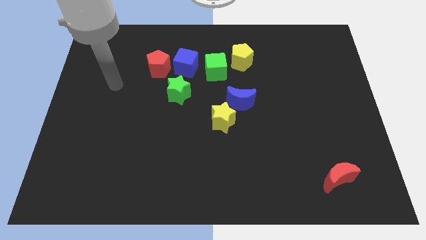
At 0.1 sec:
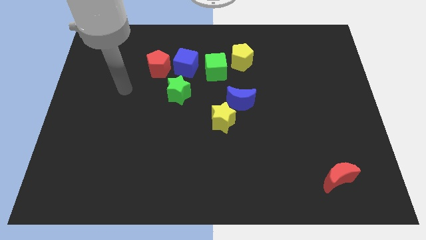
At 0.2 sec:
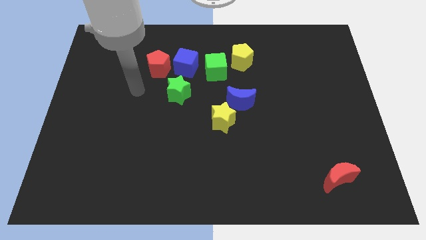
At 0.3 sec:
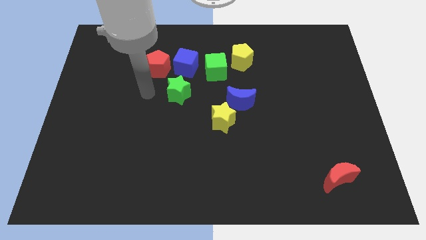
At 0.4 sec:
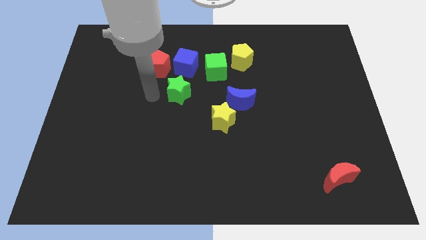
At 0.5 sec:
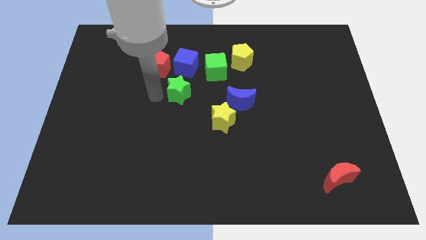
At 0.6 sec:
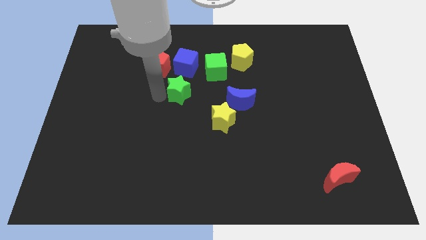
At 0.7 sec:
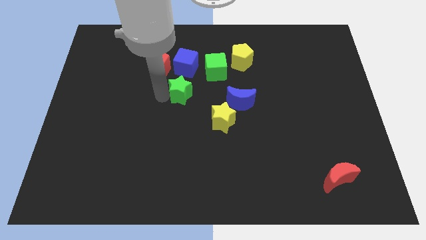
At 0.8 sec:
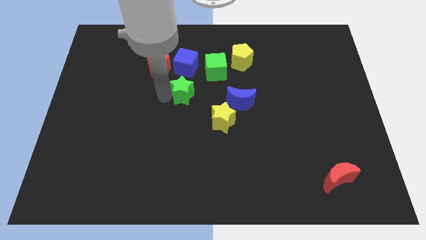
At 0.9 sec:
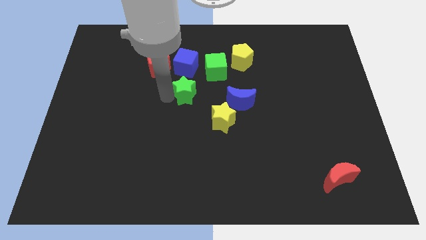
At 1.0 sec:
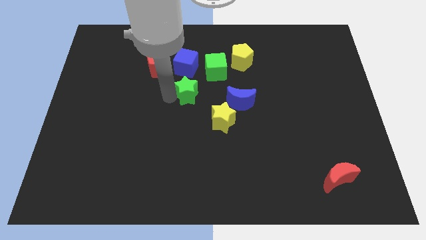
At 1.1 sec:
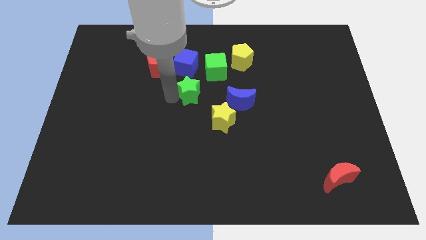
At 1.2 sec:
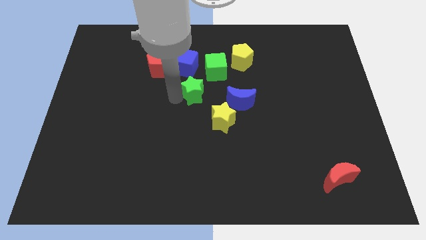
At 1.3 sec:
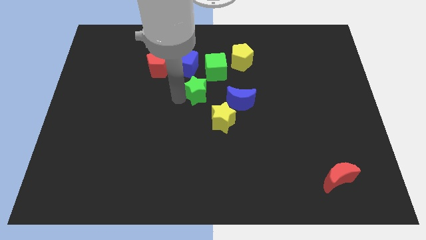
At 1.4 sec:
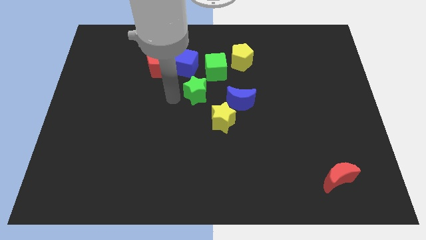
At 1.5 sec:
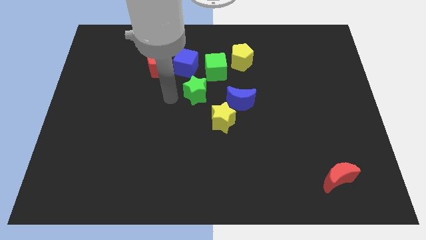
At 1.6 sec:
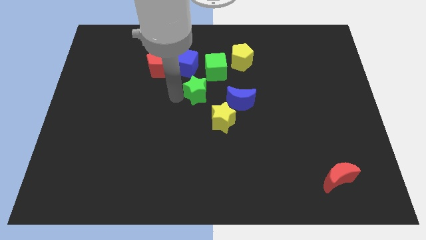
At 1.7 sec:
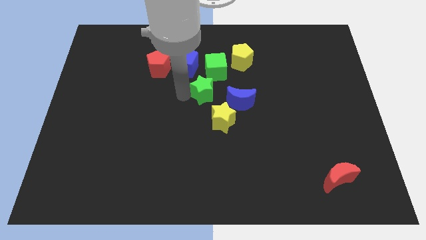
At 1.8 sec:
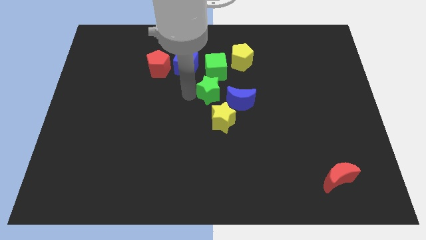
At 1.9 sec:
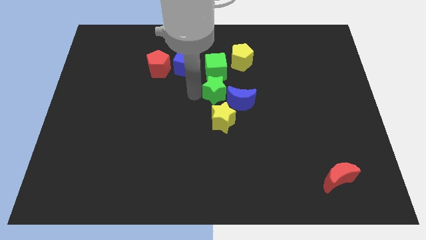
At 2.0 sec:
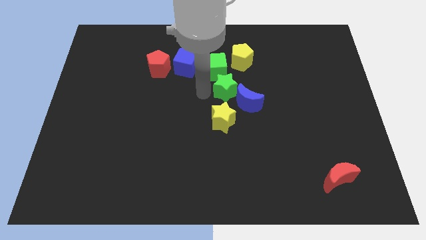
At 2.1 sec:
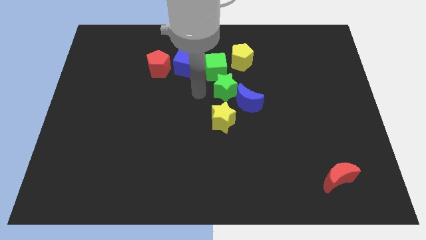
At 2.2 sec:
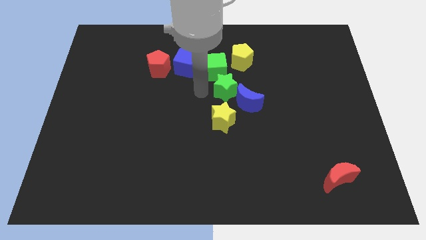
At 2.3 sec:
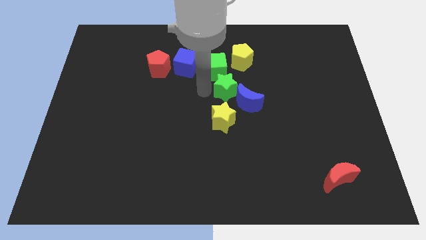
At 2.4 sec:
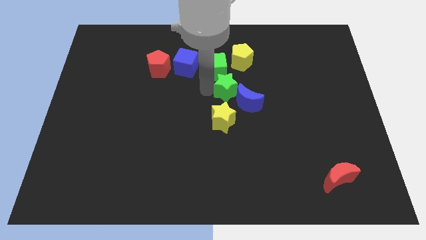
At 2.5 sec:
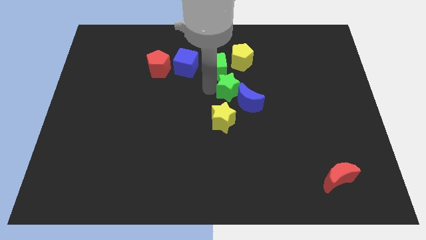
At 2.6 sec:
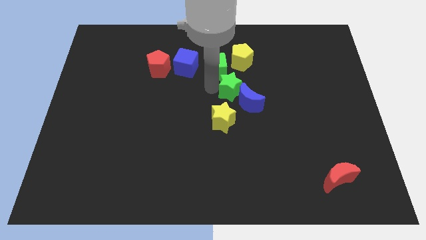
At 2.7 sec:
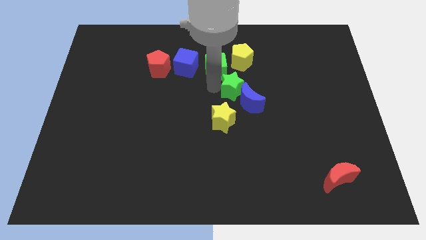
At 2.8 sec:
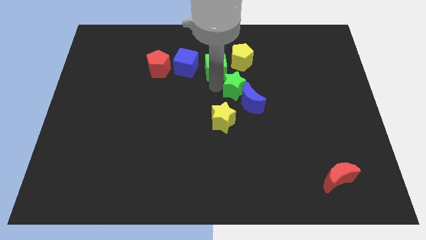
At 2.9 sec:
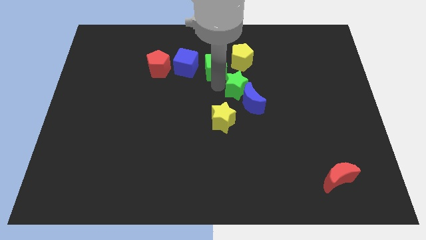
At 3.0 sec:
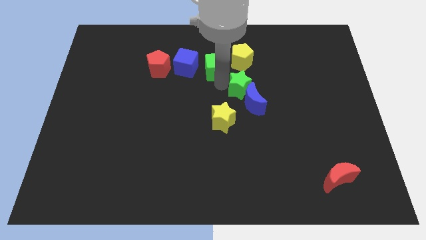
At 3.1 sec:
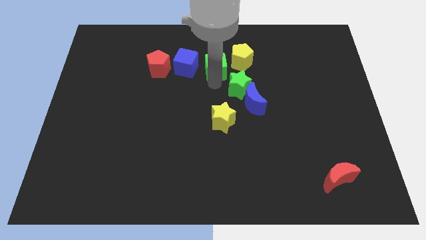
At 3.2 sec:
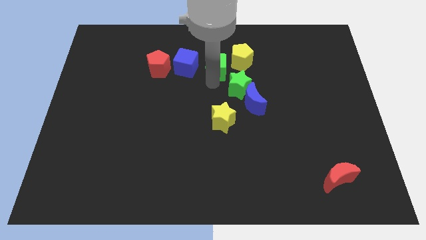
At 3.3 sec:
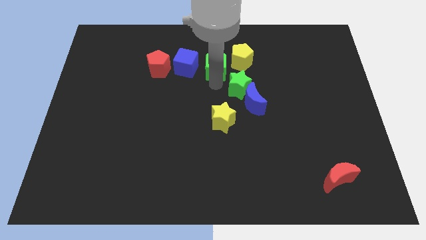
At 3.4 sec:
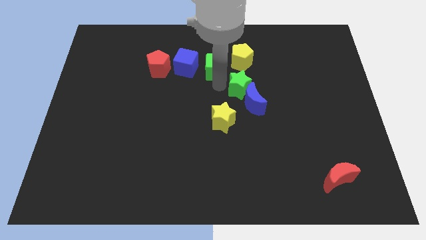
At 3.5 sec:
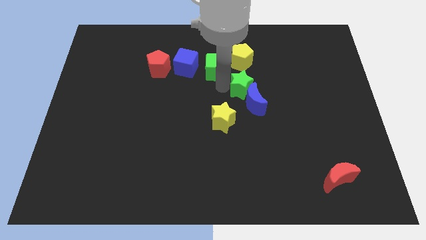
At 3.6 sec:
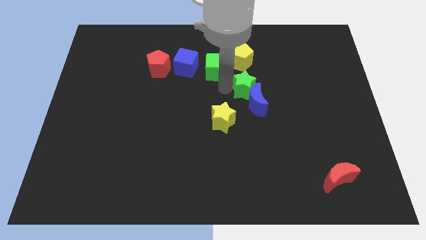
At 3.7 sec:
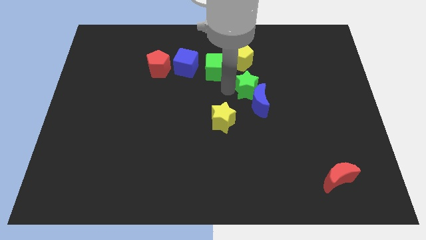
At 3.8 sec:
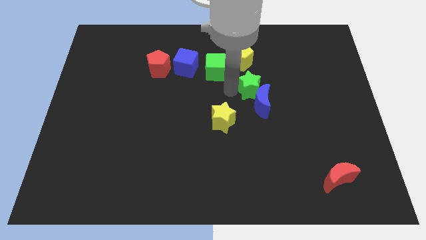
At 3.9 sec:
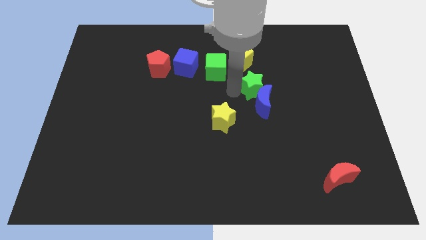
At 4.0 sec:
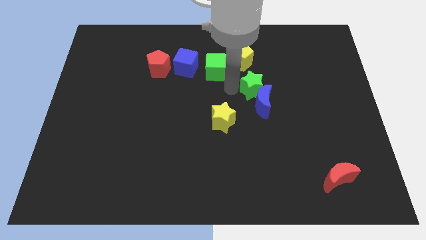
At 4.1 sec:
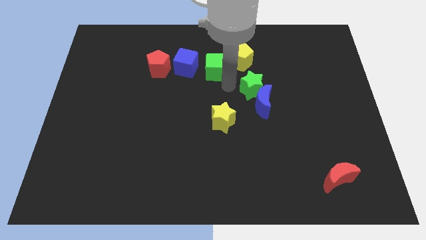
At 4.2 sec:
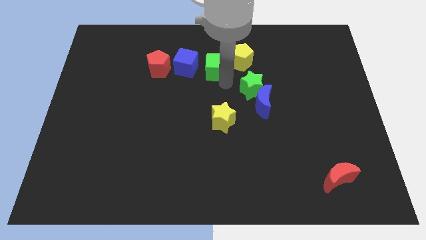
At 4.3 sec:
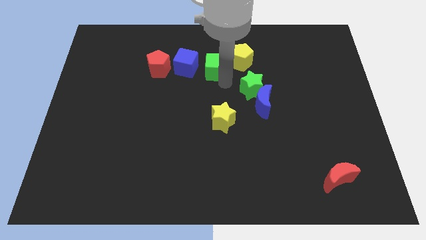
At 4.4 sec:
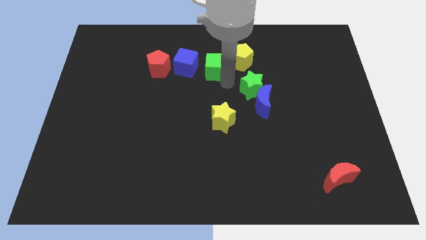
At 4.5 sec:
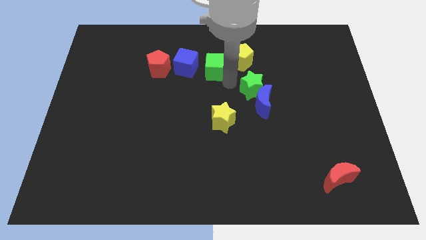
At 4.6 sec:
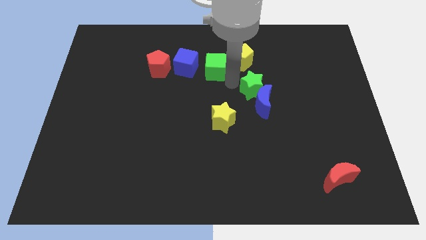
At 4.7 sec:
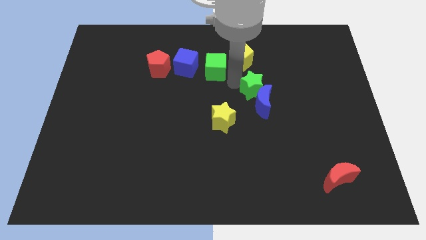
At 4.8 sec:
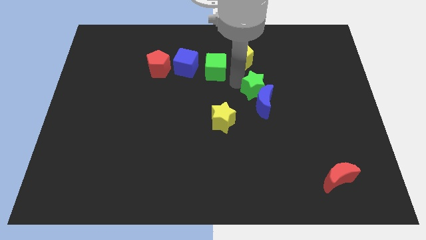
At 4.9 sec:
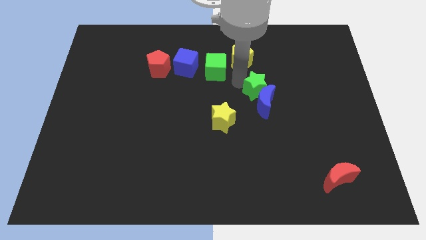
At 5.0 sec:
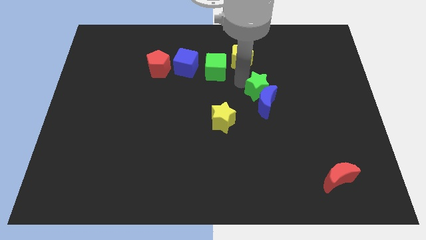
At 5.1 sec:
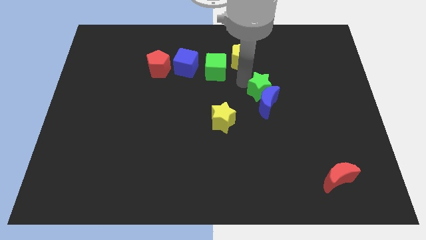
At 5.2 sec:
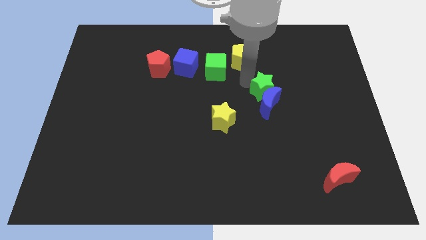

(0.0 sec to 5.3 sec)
push the green star to the right

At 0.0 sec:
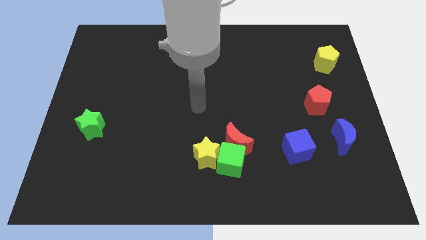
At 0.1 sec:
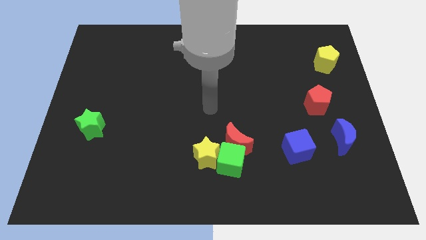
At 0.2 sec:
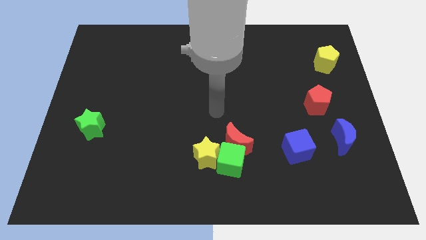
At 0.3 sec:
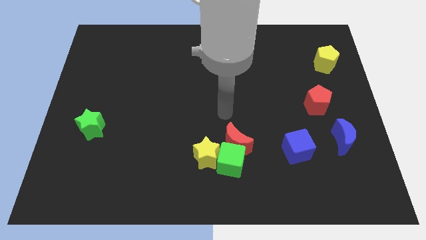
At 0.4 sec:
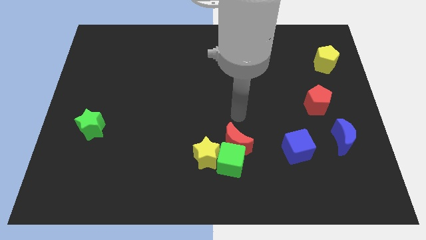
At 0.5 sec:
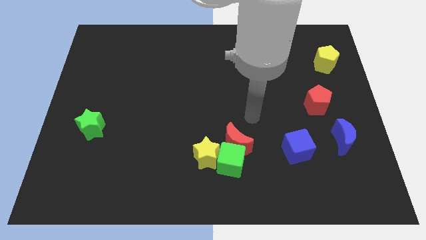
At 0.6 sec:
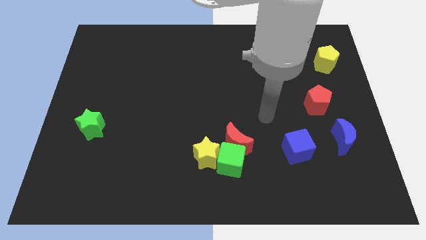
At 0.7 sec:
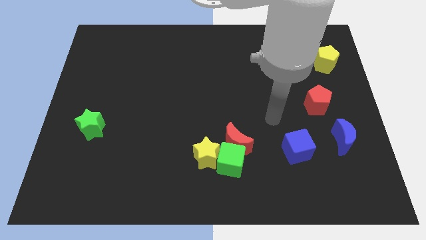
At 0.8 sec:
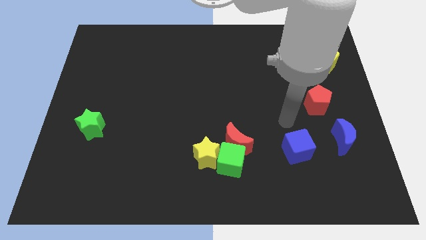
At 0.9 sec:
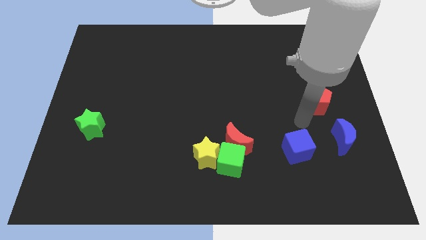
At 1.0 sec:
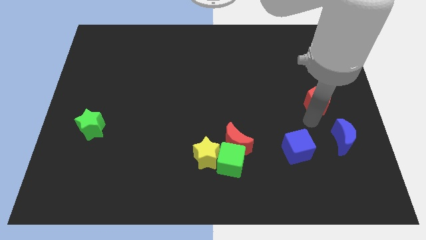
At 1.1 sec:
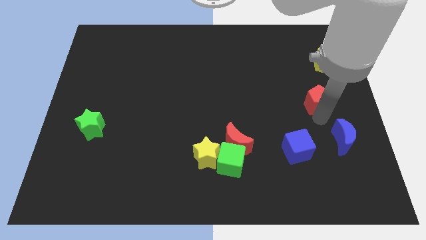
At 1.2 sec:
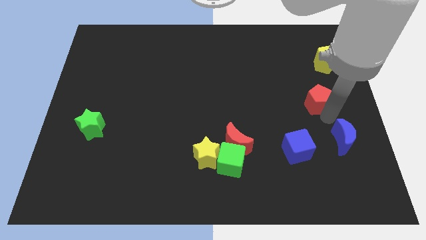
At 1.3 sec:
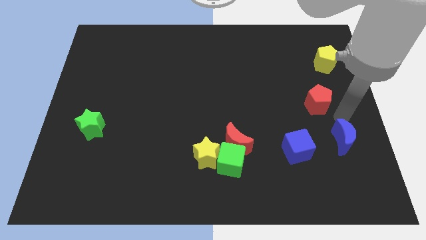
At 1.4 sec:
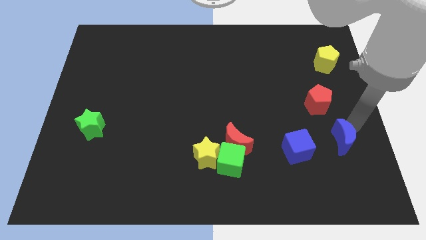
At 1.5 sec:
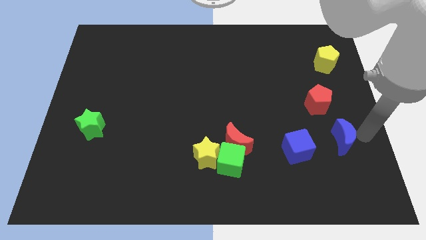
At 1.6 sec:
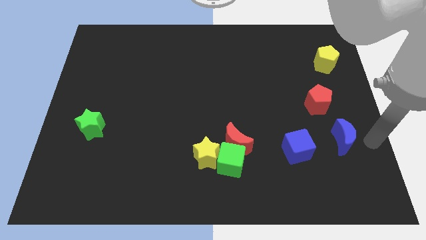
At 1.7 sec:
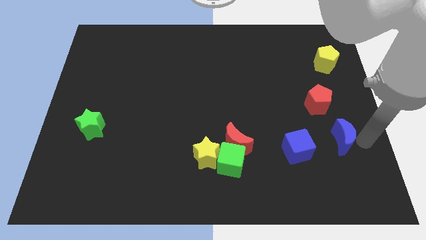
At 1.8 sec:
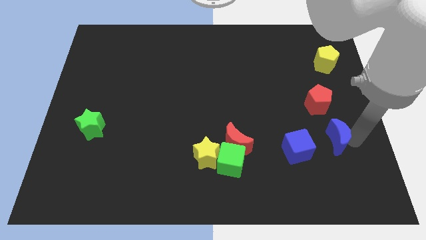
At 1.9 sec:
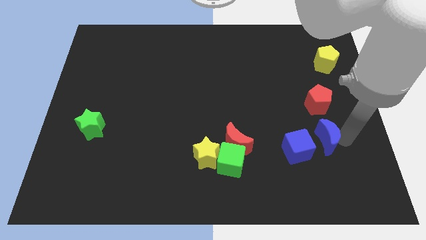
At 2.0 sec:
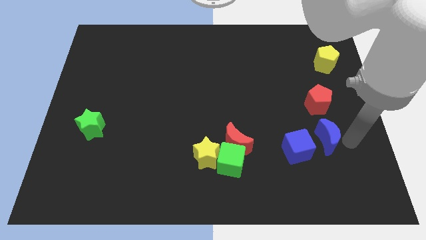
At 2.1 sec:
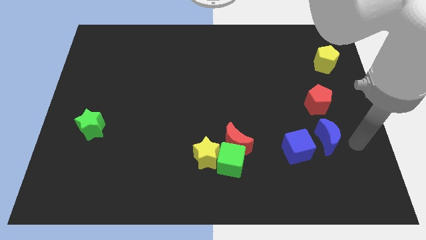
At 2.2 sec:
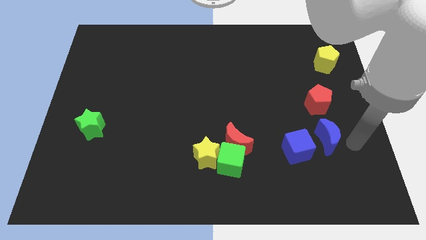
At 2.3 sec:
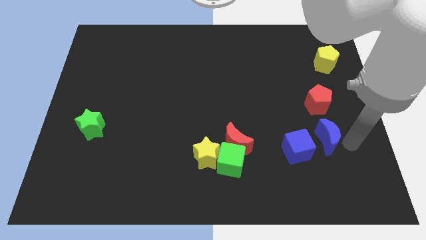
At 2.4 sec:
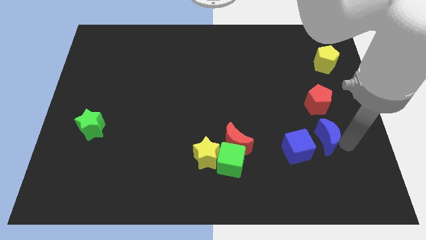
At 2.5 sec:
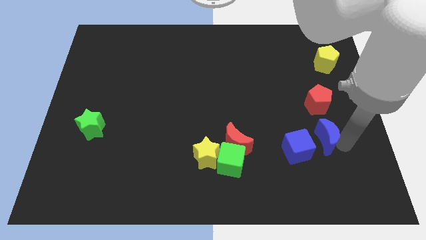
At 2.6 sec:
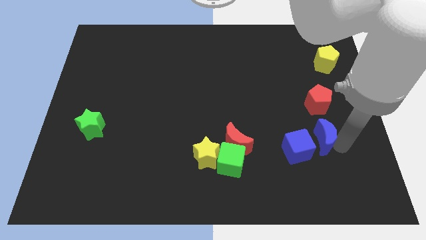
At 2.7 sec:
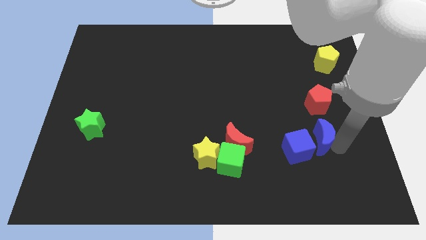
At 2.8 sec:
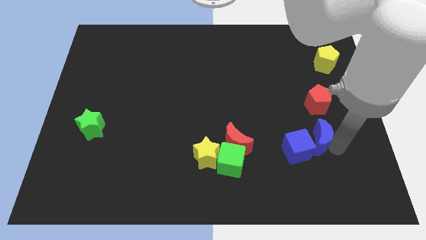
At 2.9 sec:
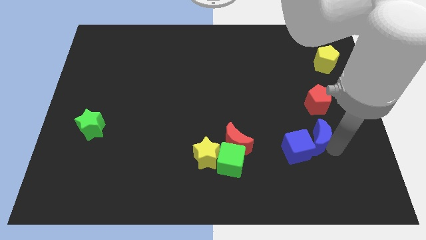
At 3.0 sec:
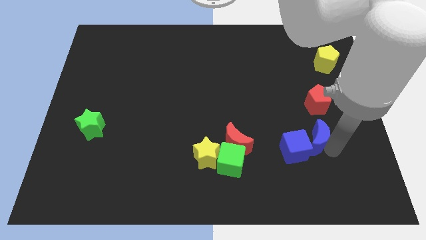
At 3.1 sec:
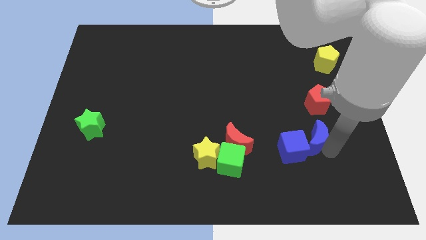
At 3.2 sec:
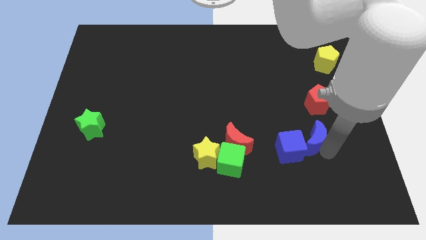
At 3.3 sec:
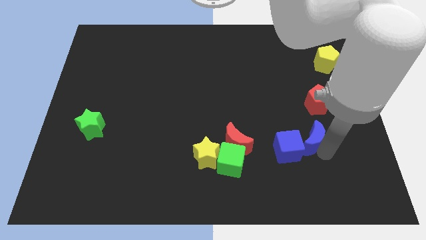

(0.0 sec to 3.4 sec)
push the blue moon a little left
